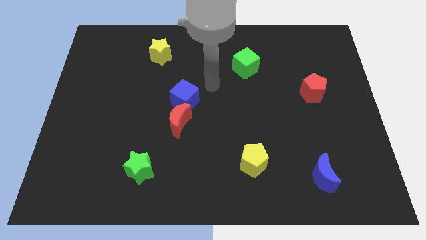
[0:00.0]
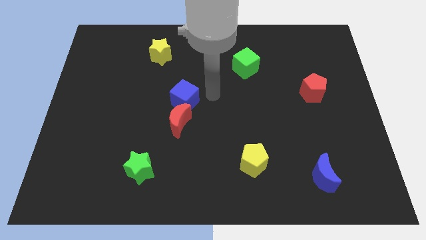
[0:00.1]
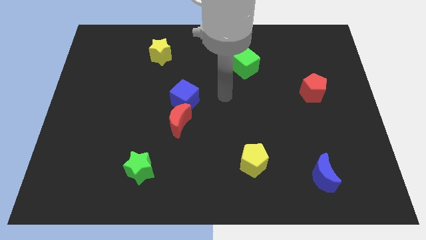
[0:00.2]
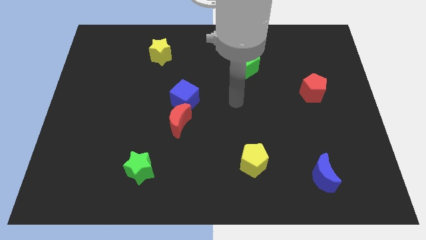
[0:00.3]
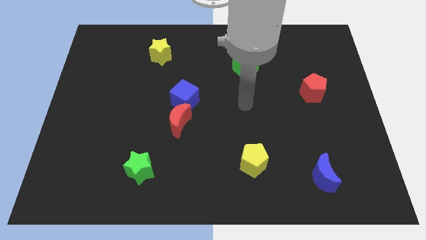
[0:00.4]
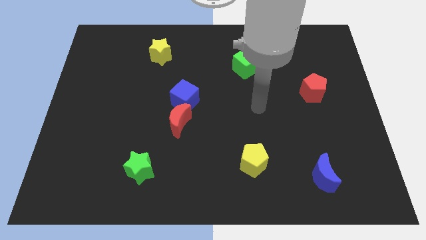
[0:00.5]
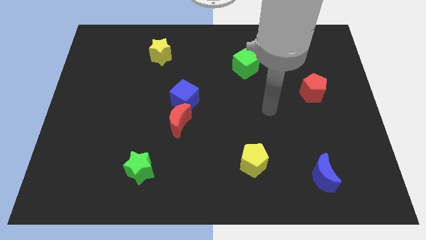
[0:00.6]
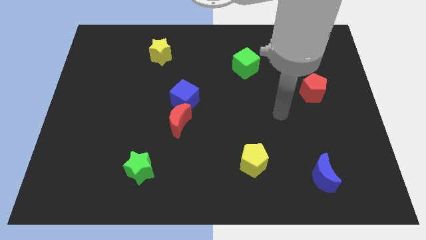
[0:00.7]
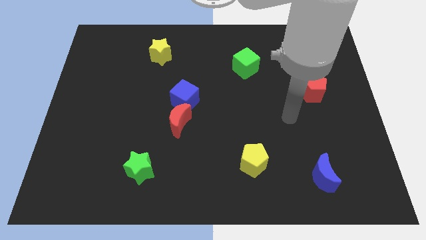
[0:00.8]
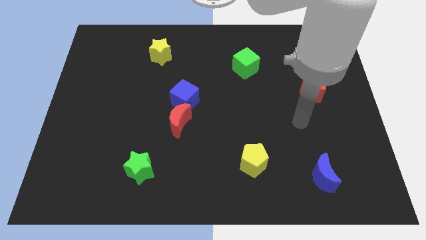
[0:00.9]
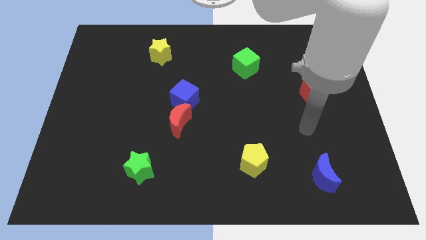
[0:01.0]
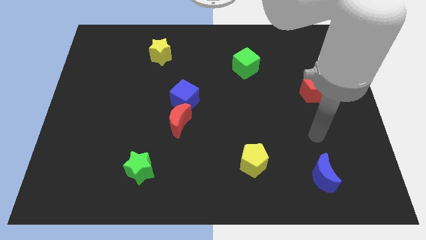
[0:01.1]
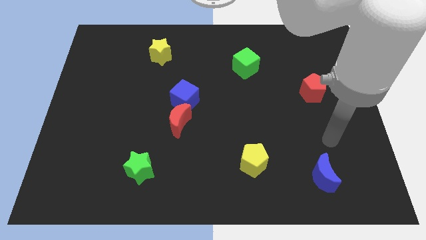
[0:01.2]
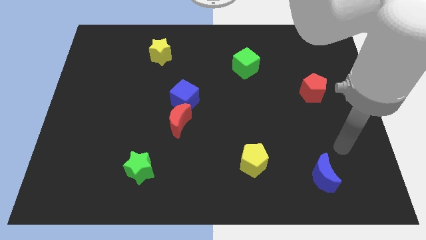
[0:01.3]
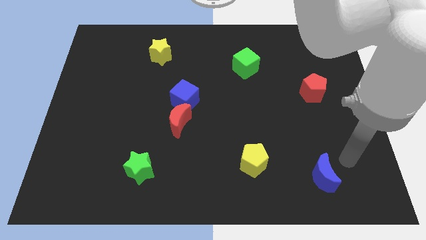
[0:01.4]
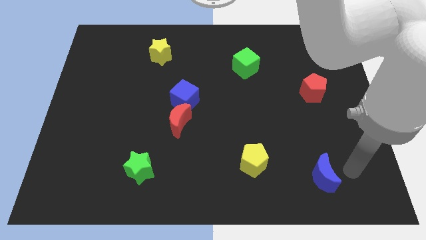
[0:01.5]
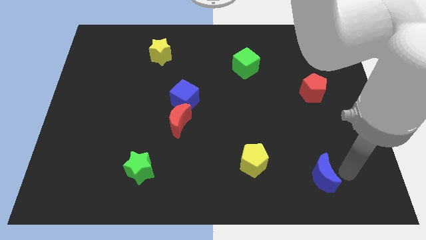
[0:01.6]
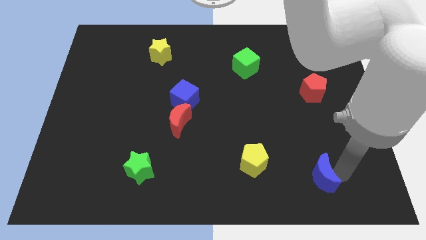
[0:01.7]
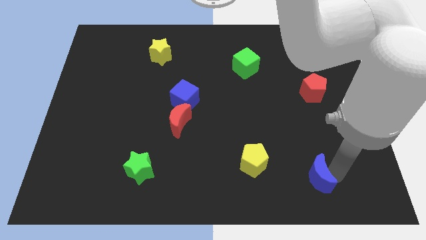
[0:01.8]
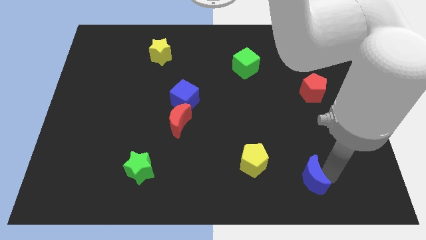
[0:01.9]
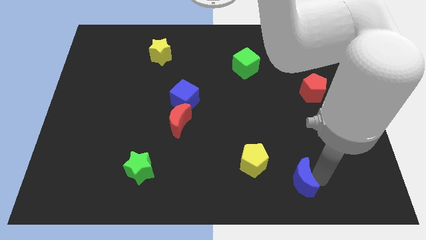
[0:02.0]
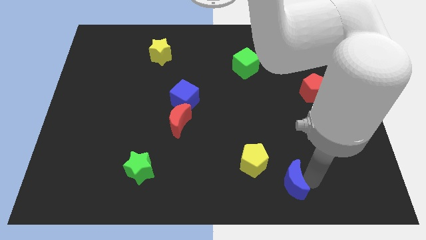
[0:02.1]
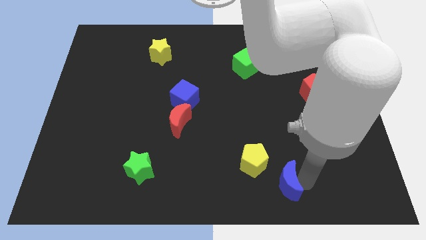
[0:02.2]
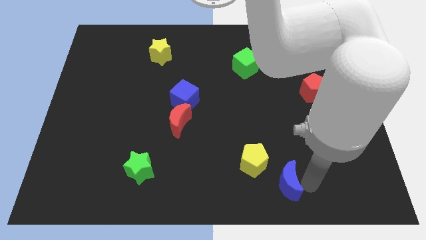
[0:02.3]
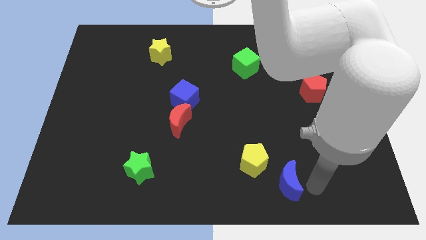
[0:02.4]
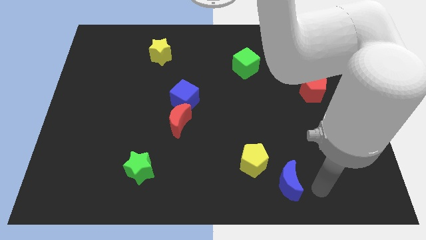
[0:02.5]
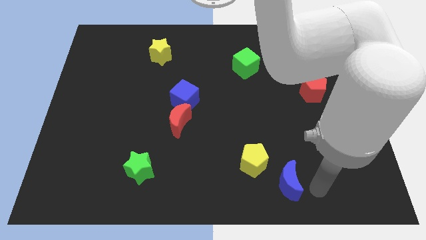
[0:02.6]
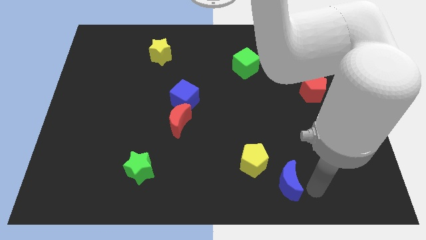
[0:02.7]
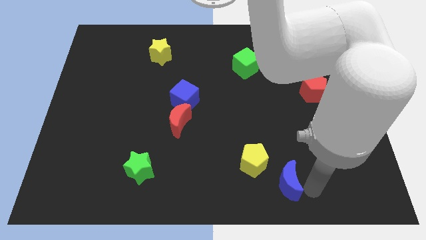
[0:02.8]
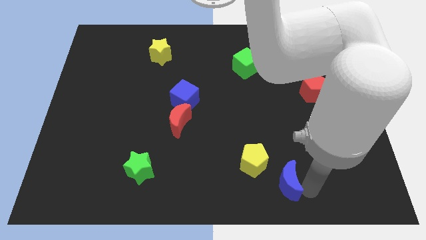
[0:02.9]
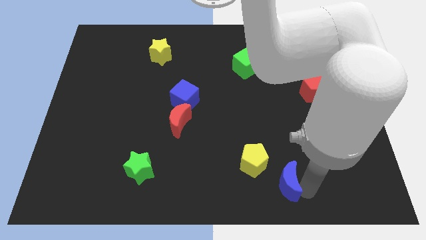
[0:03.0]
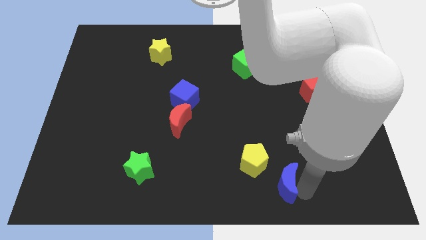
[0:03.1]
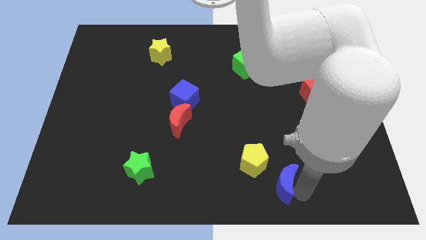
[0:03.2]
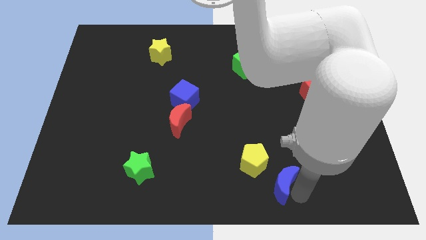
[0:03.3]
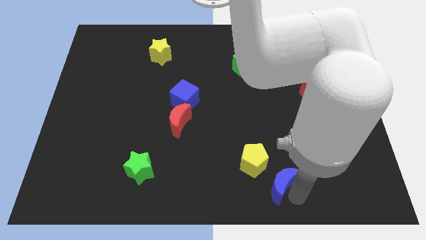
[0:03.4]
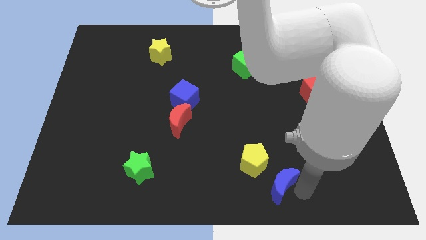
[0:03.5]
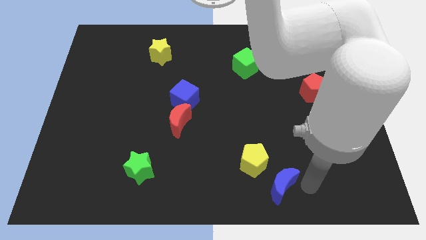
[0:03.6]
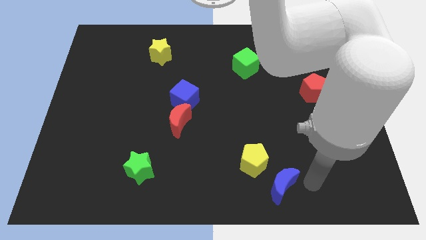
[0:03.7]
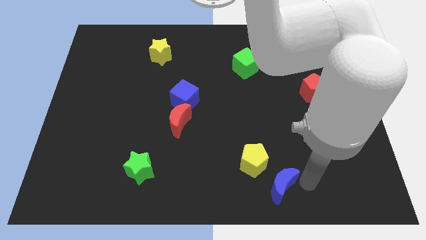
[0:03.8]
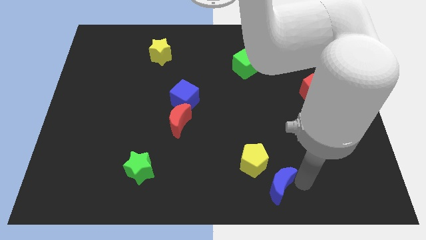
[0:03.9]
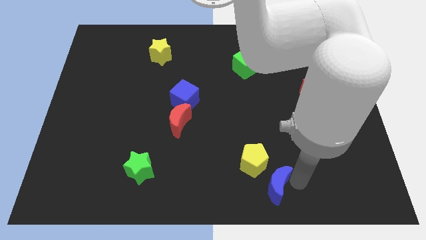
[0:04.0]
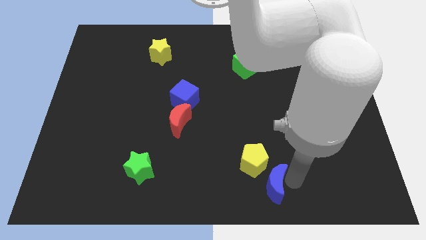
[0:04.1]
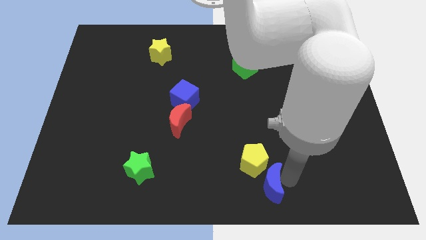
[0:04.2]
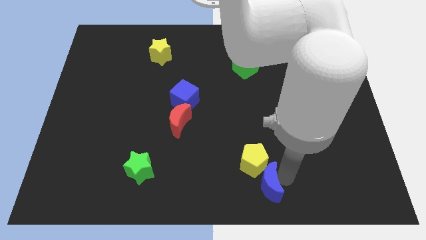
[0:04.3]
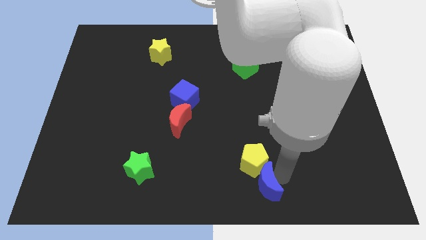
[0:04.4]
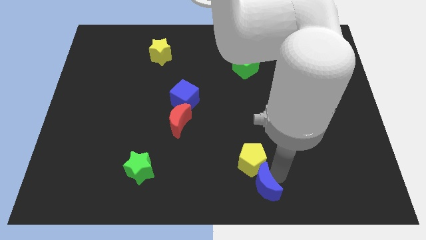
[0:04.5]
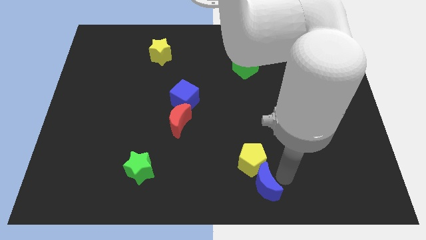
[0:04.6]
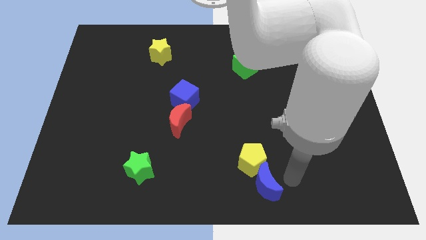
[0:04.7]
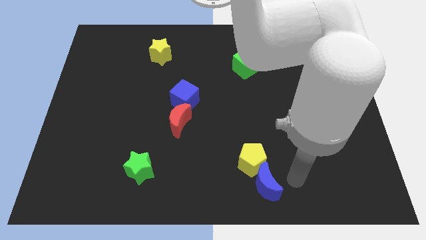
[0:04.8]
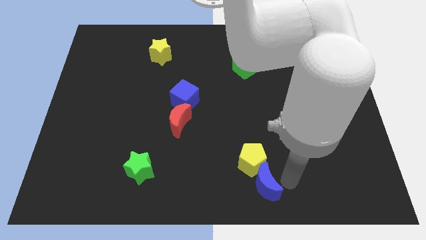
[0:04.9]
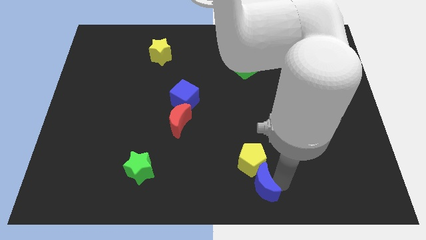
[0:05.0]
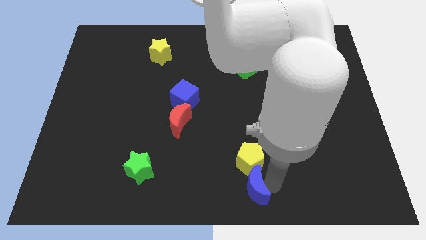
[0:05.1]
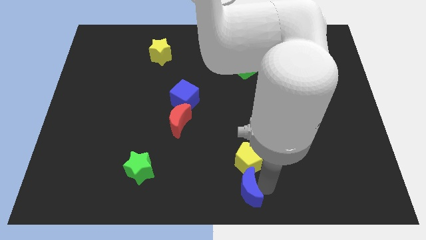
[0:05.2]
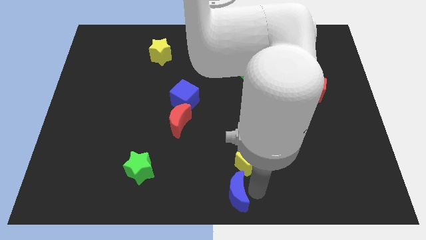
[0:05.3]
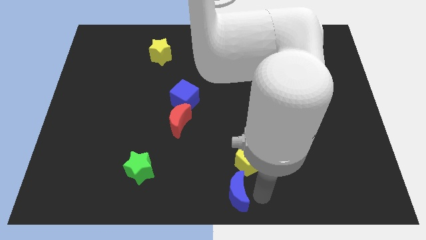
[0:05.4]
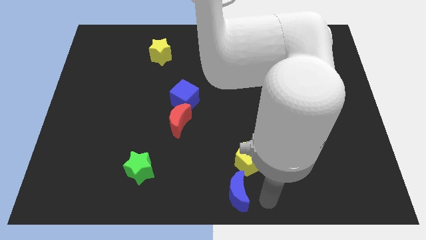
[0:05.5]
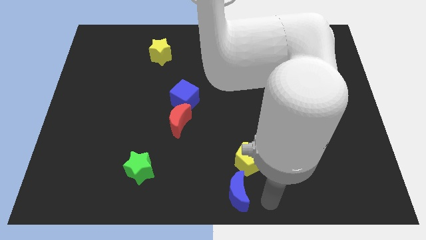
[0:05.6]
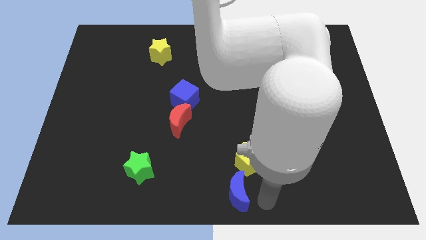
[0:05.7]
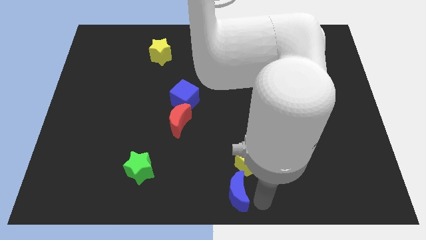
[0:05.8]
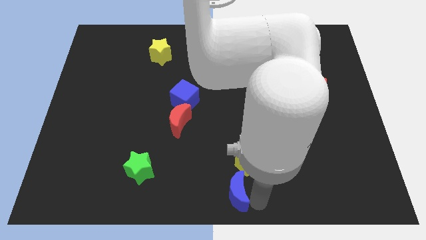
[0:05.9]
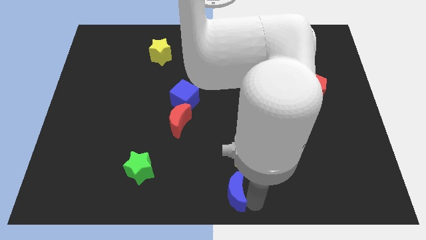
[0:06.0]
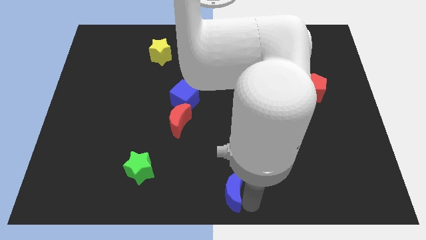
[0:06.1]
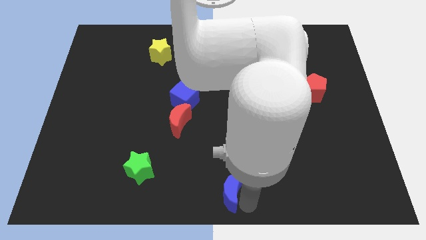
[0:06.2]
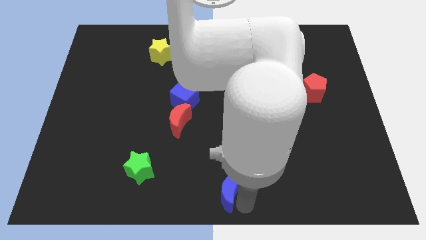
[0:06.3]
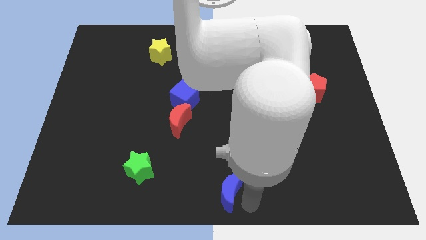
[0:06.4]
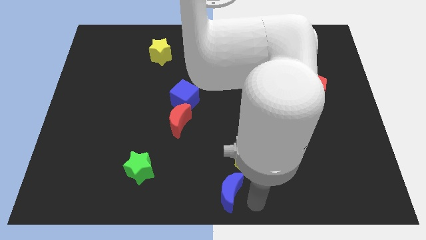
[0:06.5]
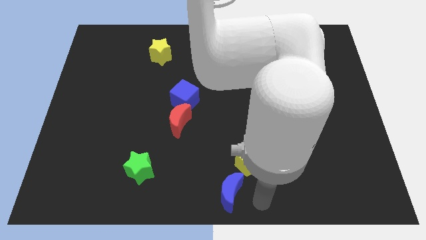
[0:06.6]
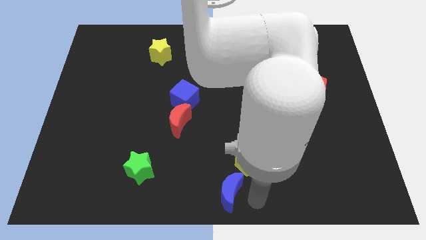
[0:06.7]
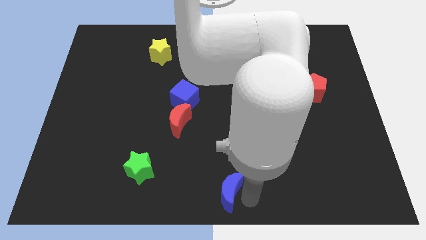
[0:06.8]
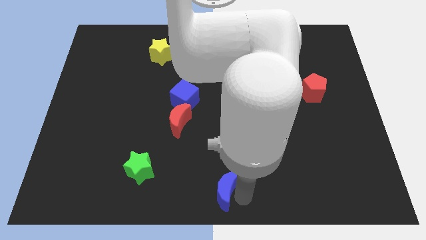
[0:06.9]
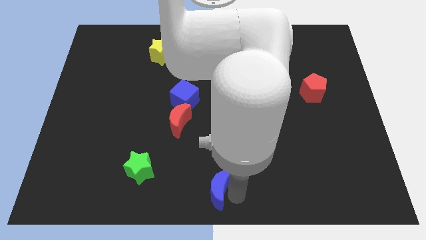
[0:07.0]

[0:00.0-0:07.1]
move the blue moon to the left

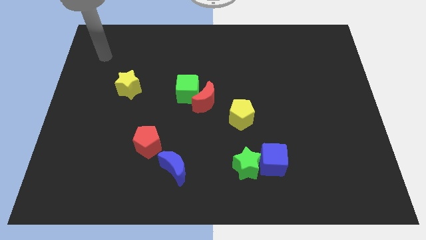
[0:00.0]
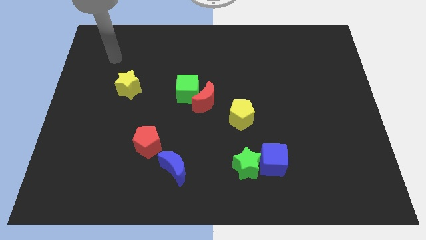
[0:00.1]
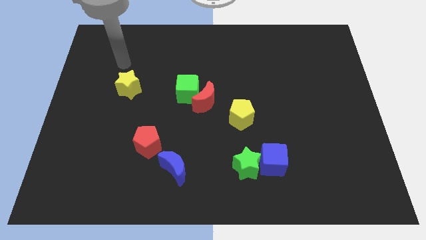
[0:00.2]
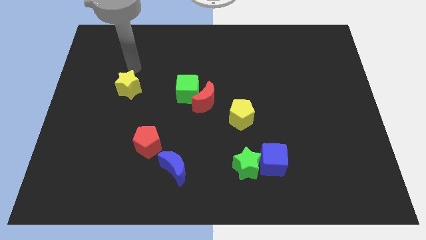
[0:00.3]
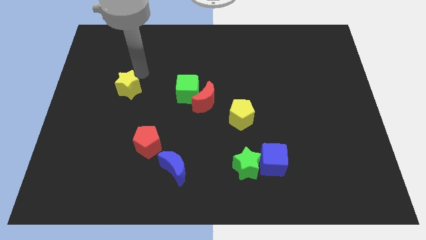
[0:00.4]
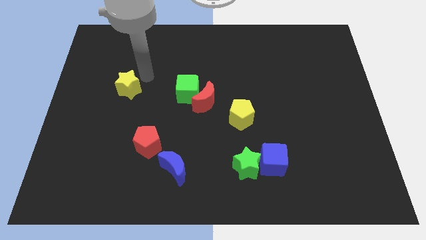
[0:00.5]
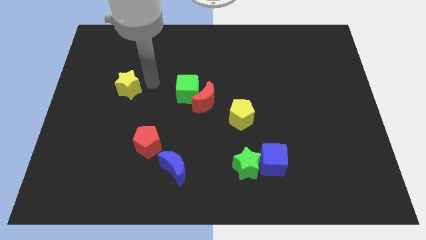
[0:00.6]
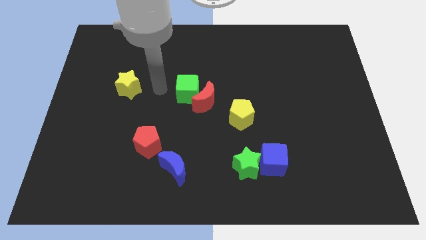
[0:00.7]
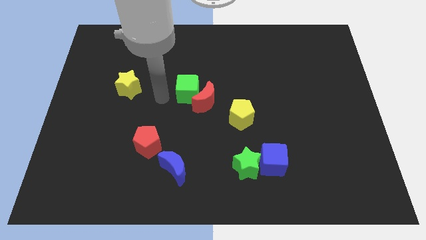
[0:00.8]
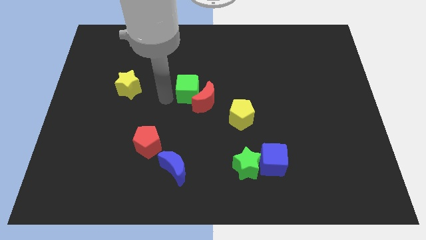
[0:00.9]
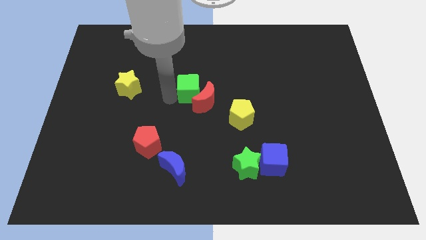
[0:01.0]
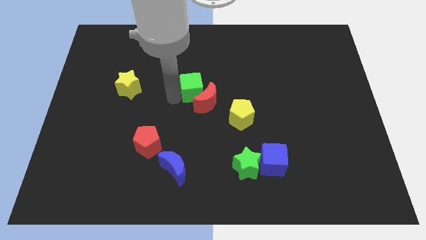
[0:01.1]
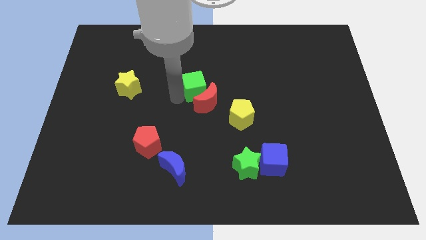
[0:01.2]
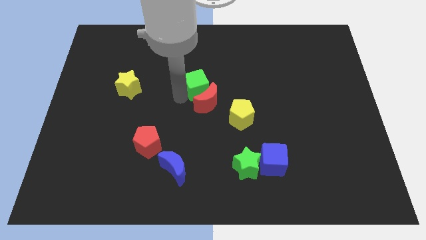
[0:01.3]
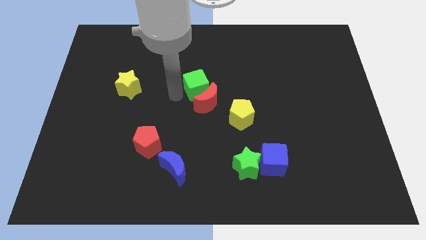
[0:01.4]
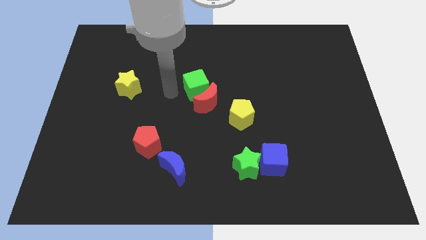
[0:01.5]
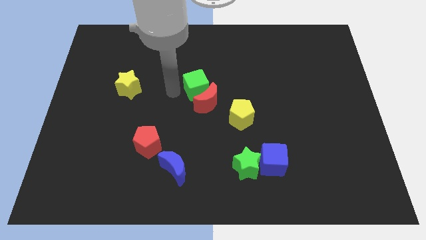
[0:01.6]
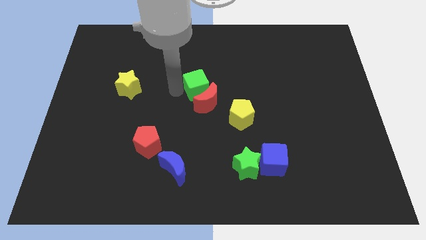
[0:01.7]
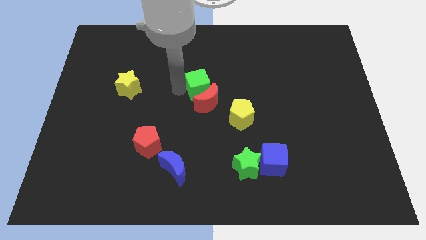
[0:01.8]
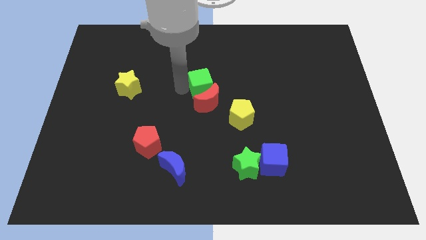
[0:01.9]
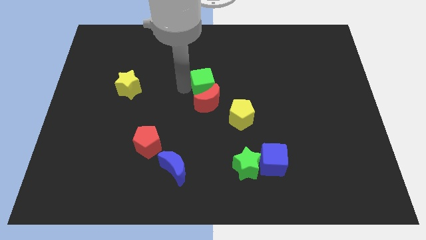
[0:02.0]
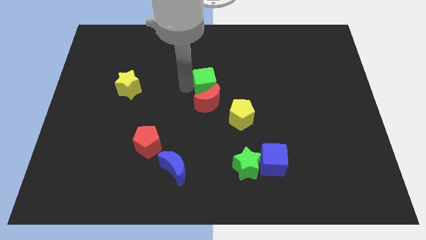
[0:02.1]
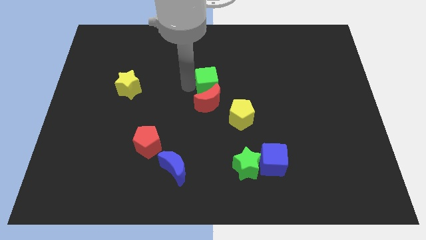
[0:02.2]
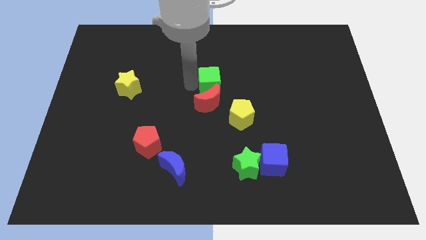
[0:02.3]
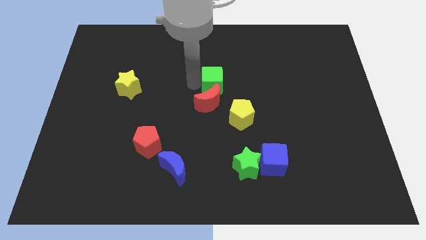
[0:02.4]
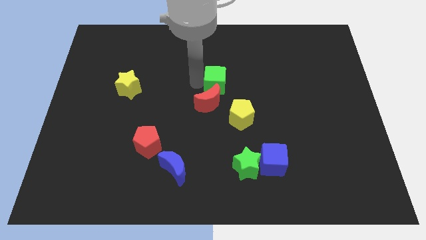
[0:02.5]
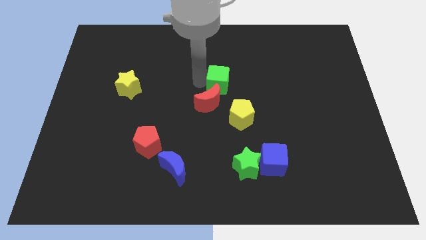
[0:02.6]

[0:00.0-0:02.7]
slide the green cube right a little bit
